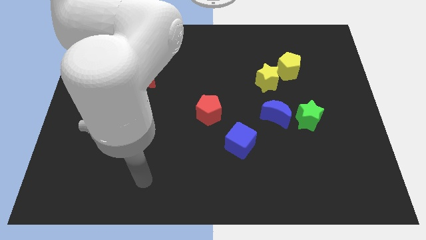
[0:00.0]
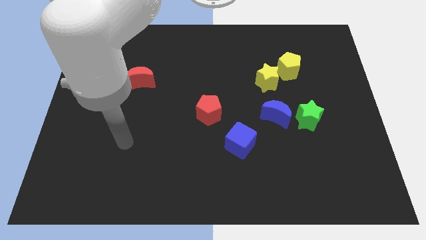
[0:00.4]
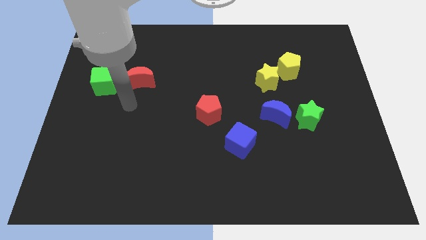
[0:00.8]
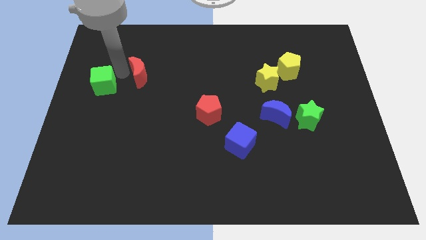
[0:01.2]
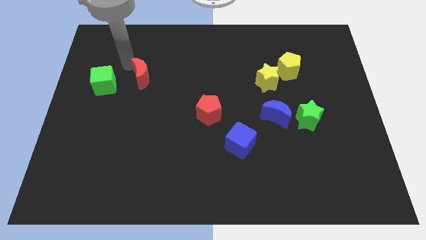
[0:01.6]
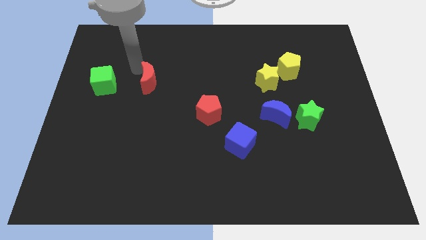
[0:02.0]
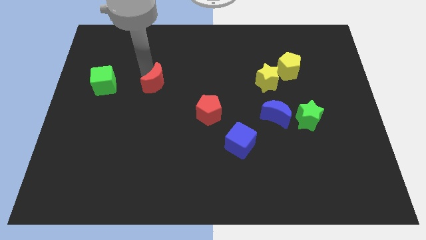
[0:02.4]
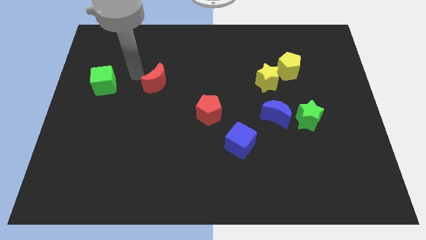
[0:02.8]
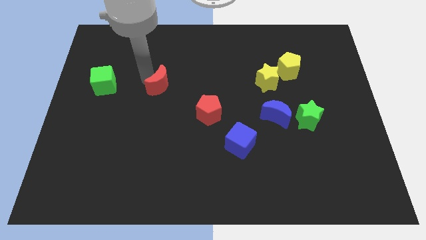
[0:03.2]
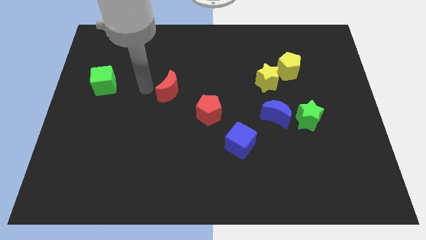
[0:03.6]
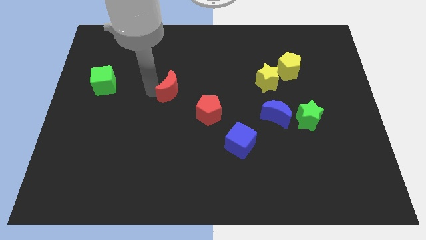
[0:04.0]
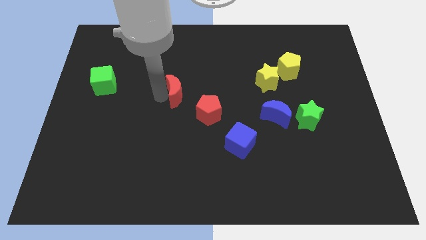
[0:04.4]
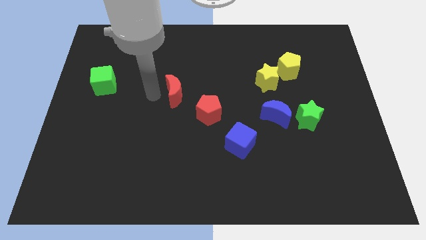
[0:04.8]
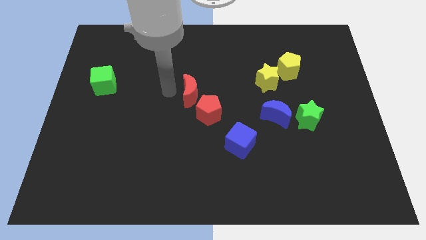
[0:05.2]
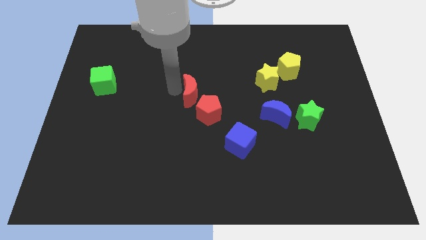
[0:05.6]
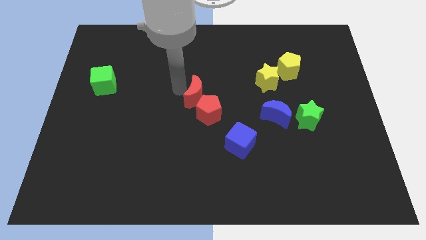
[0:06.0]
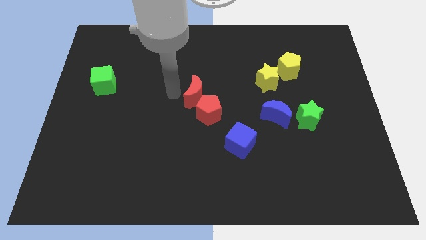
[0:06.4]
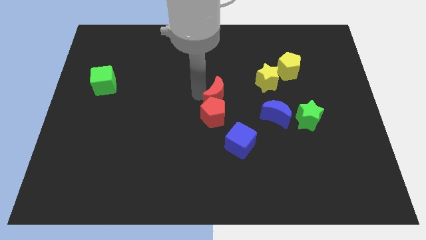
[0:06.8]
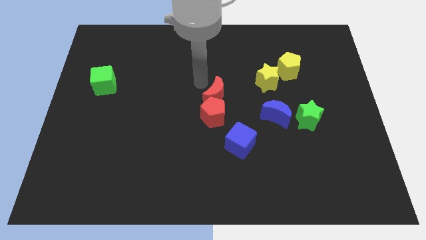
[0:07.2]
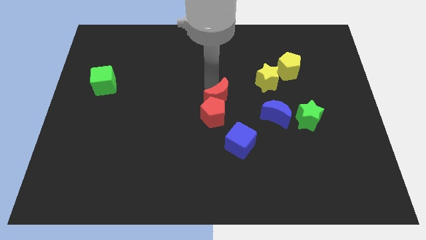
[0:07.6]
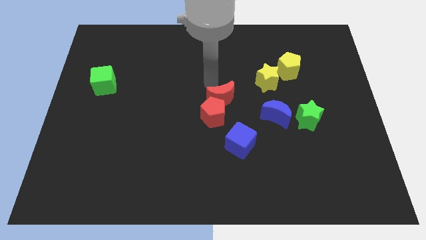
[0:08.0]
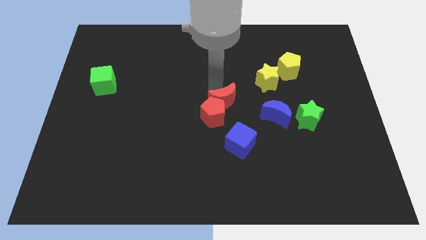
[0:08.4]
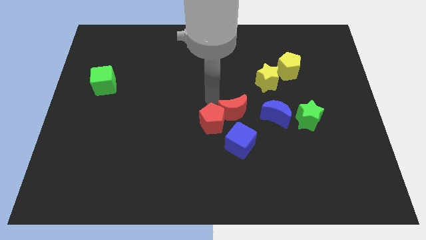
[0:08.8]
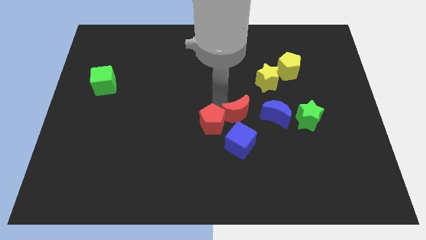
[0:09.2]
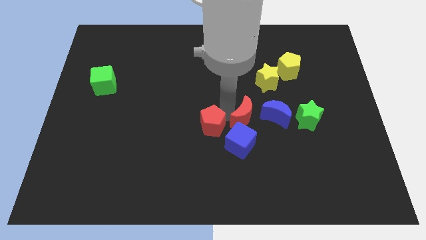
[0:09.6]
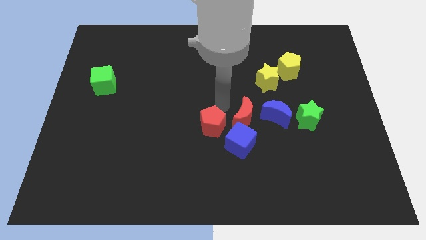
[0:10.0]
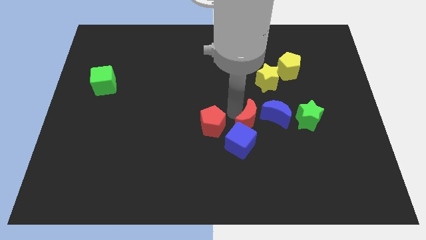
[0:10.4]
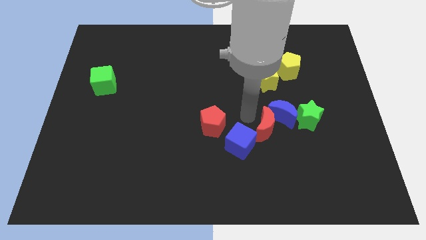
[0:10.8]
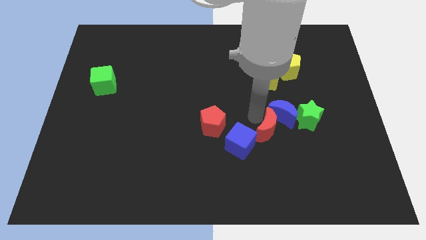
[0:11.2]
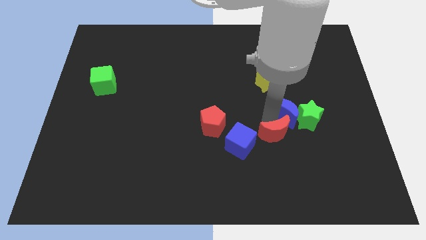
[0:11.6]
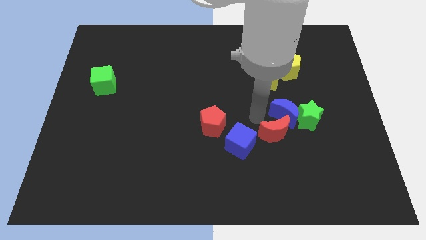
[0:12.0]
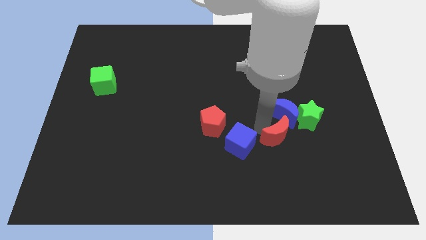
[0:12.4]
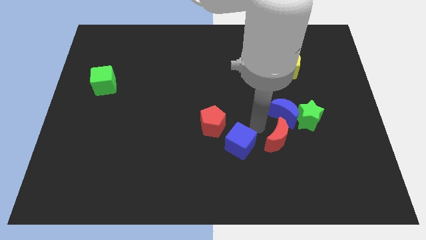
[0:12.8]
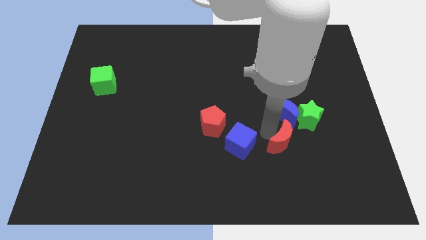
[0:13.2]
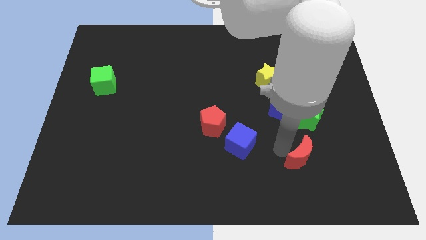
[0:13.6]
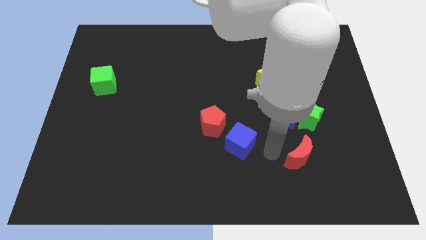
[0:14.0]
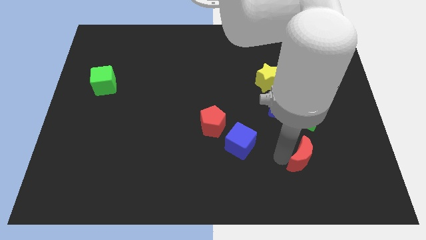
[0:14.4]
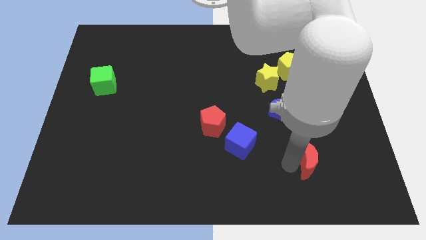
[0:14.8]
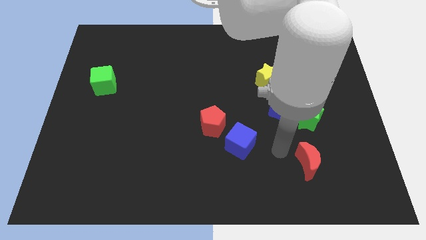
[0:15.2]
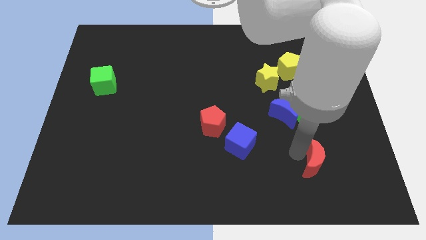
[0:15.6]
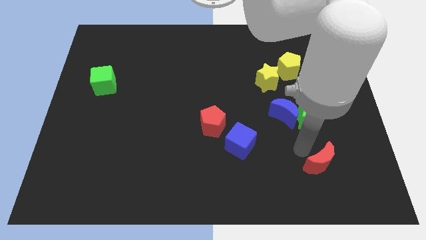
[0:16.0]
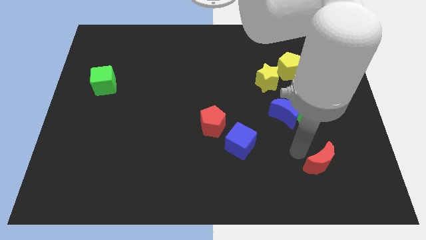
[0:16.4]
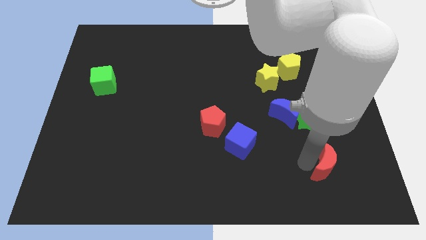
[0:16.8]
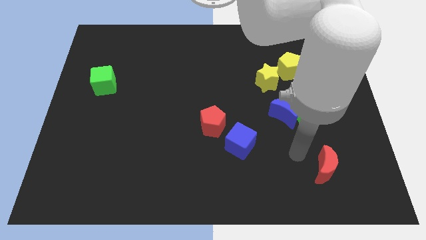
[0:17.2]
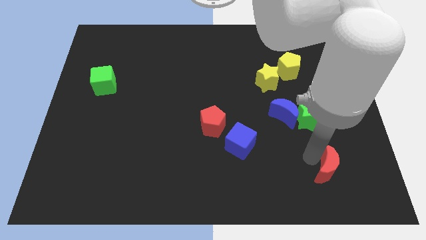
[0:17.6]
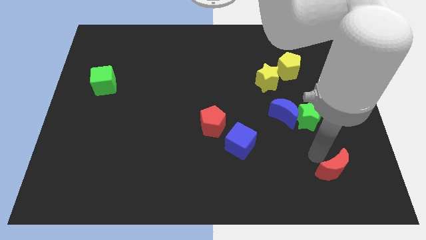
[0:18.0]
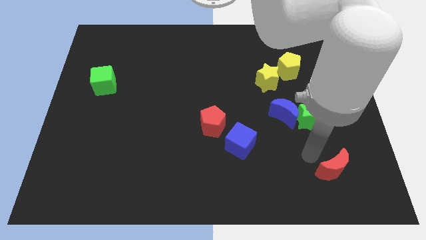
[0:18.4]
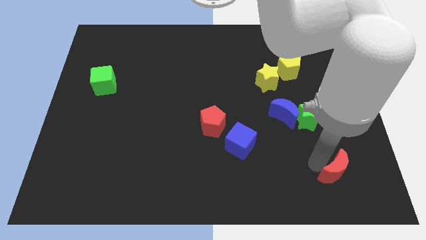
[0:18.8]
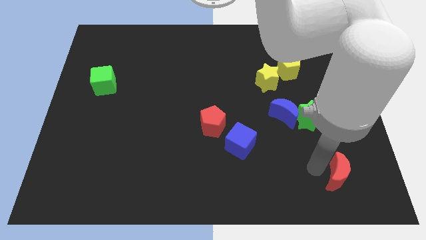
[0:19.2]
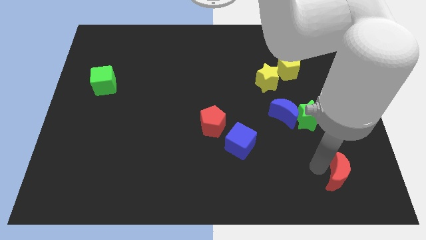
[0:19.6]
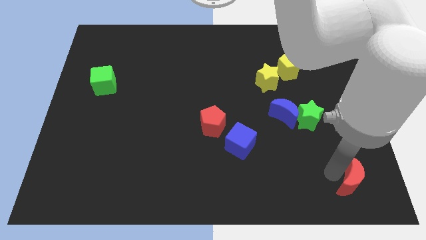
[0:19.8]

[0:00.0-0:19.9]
slide the red moon to the bottom right of the board
